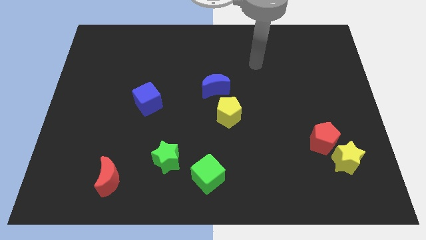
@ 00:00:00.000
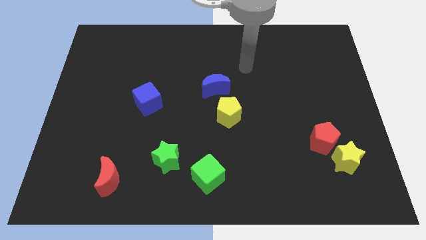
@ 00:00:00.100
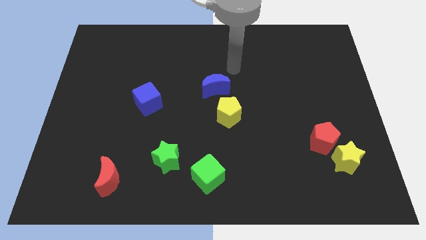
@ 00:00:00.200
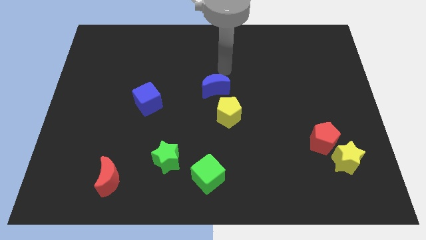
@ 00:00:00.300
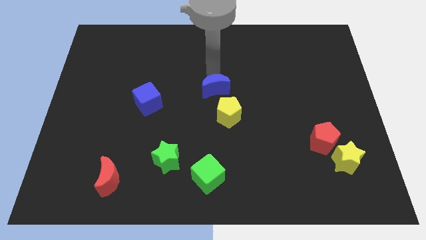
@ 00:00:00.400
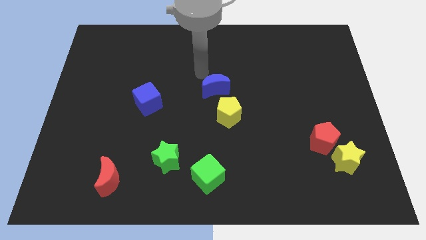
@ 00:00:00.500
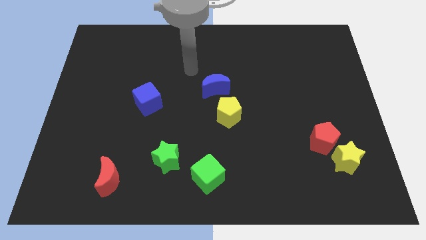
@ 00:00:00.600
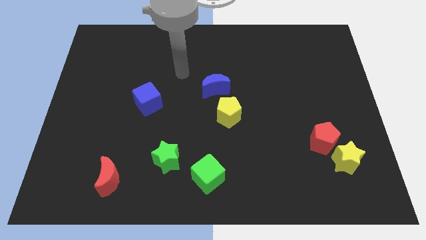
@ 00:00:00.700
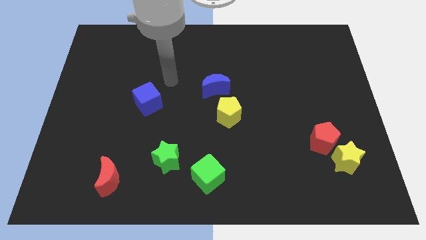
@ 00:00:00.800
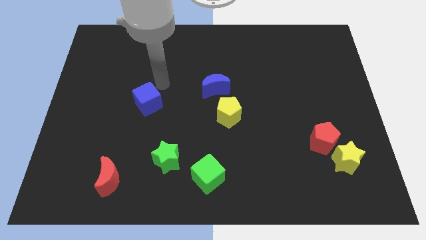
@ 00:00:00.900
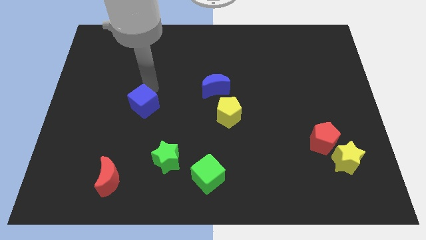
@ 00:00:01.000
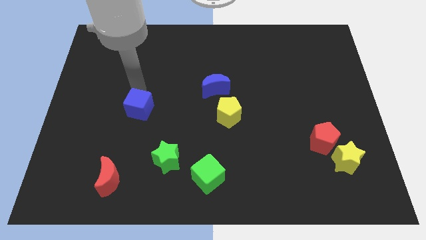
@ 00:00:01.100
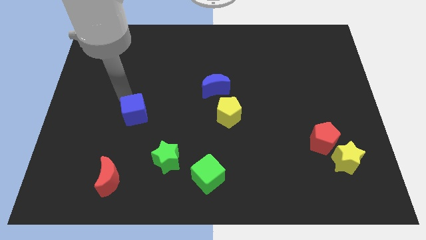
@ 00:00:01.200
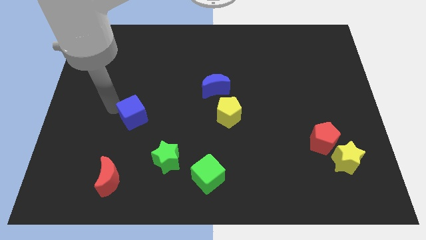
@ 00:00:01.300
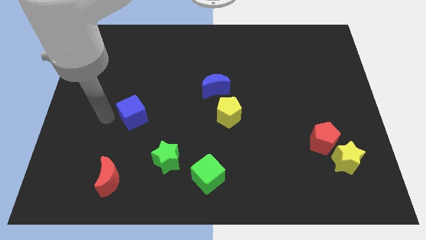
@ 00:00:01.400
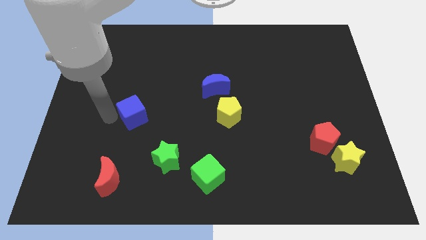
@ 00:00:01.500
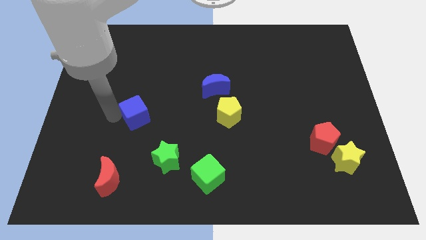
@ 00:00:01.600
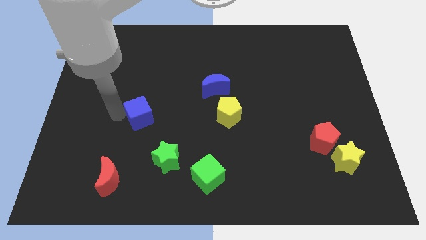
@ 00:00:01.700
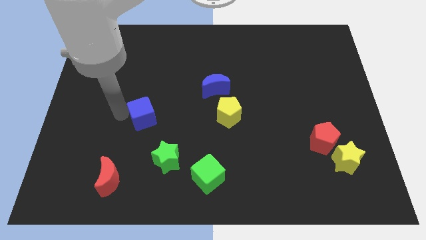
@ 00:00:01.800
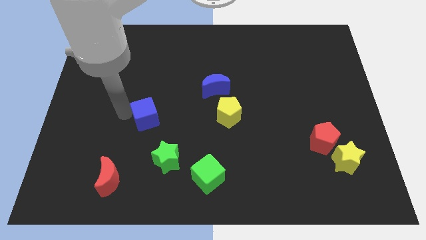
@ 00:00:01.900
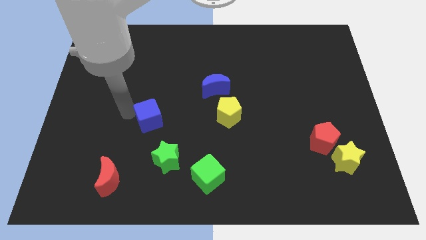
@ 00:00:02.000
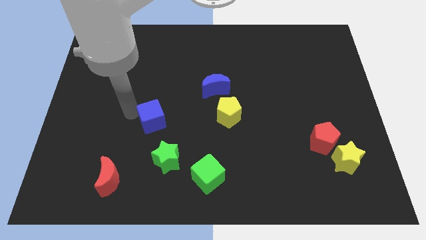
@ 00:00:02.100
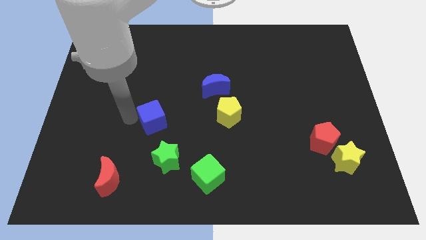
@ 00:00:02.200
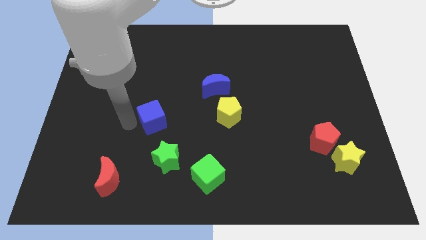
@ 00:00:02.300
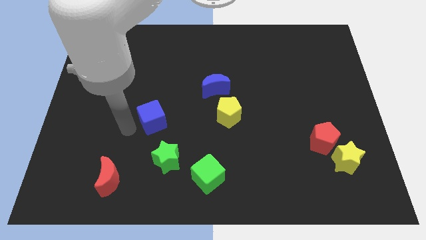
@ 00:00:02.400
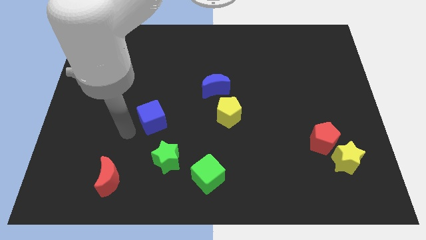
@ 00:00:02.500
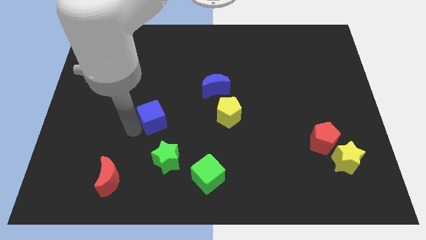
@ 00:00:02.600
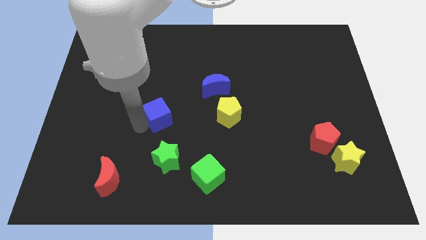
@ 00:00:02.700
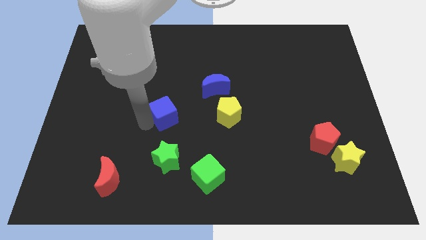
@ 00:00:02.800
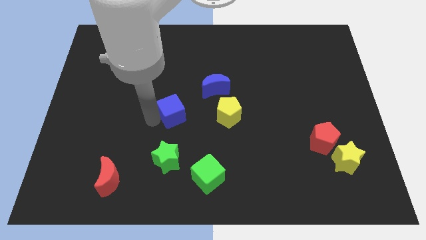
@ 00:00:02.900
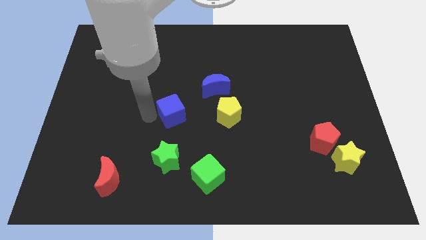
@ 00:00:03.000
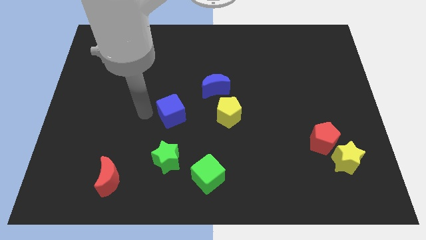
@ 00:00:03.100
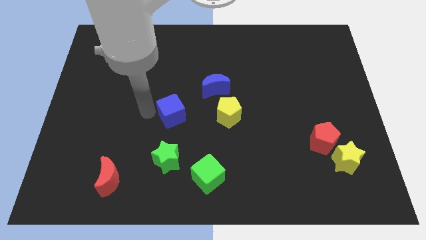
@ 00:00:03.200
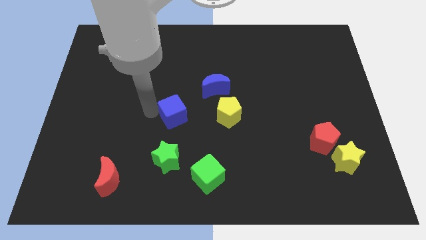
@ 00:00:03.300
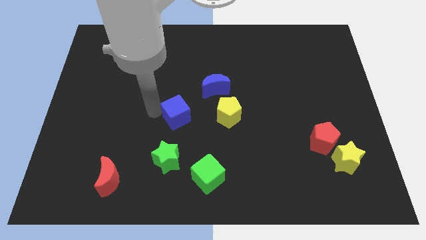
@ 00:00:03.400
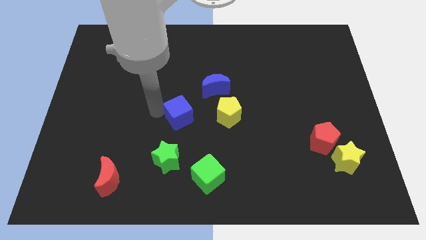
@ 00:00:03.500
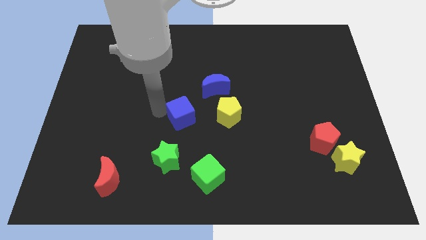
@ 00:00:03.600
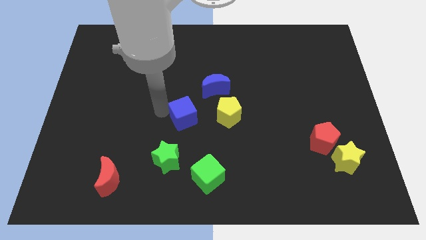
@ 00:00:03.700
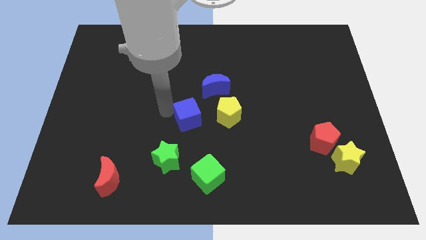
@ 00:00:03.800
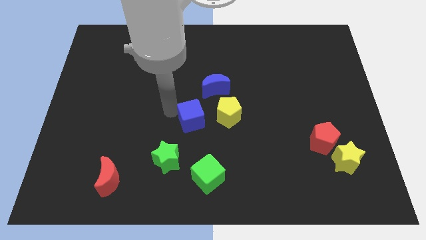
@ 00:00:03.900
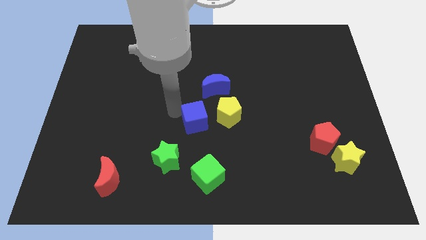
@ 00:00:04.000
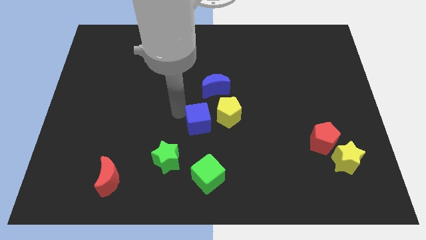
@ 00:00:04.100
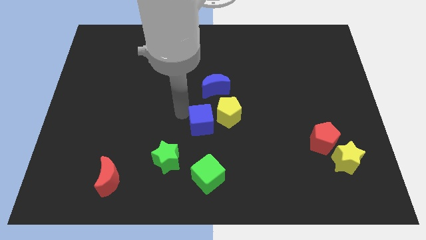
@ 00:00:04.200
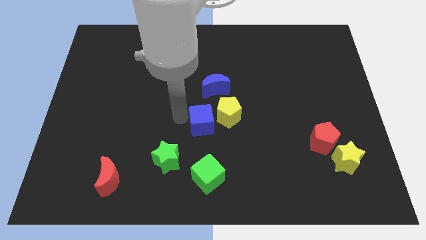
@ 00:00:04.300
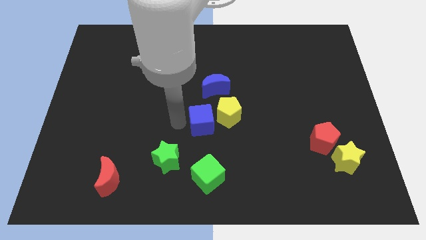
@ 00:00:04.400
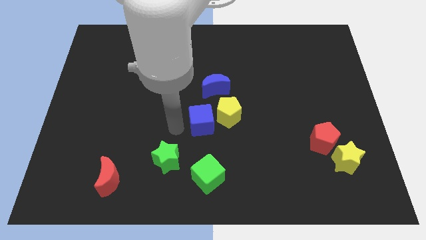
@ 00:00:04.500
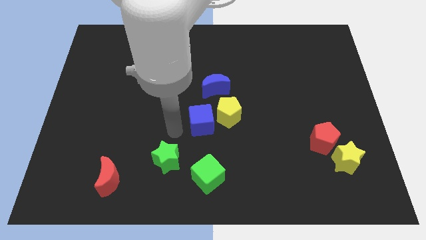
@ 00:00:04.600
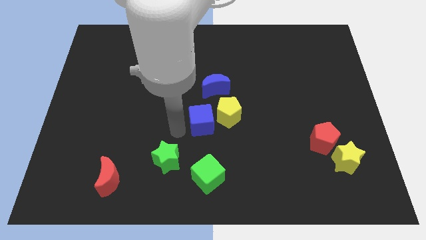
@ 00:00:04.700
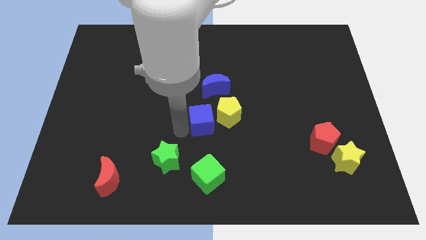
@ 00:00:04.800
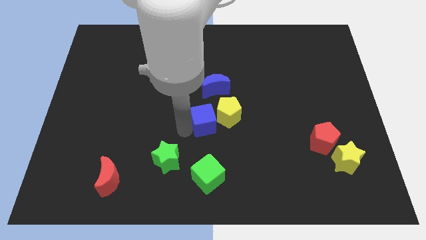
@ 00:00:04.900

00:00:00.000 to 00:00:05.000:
push the blue cube close to the yellow pentagon

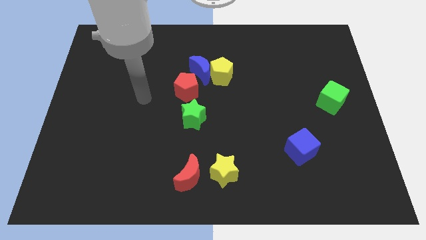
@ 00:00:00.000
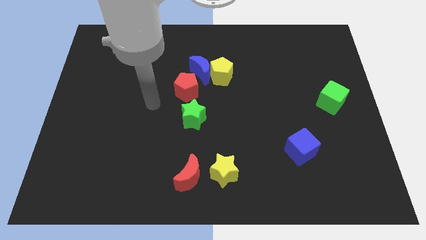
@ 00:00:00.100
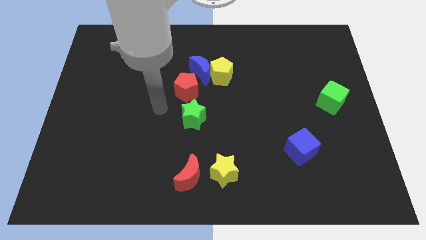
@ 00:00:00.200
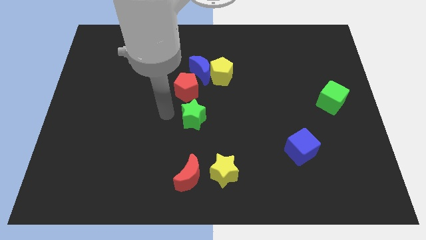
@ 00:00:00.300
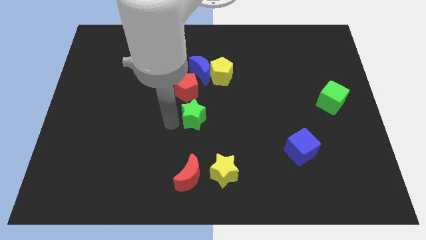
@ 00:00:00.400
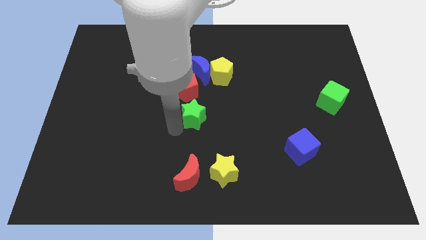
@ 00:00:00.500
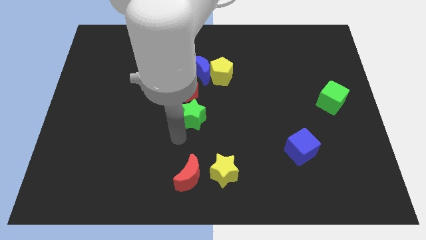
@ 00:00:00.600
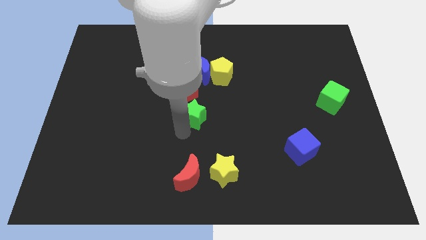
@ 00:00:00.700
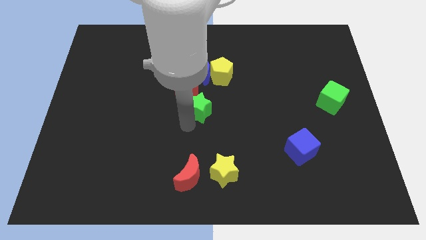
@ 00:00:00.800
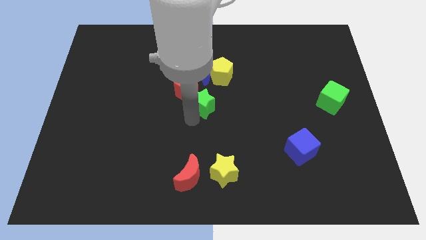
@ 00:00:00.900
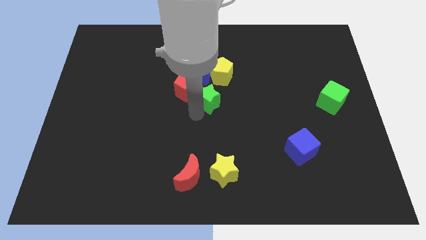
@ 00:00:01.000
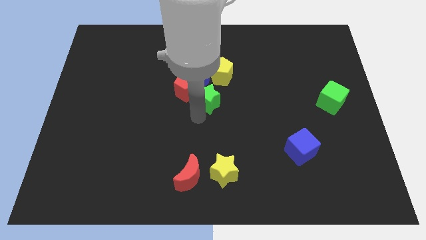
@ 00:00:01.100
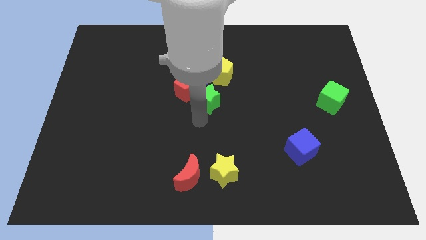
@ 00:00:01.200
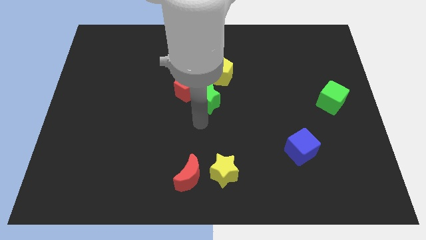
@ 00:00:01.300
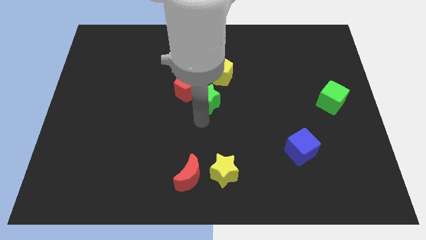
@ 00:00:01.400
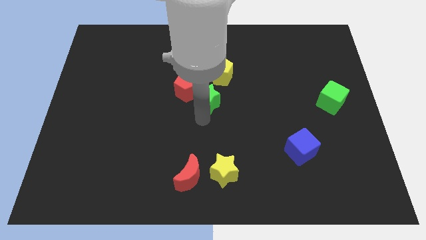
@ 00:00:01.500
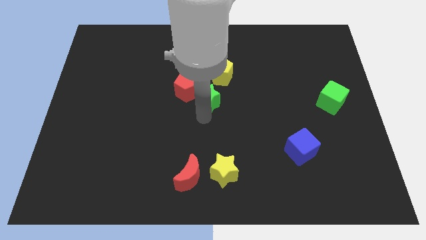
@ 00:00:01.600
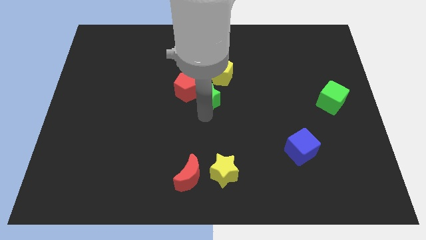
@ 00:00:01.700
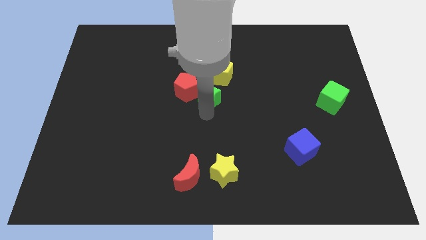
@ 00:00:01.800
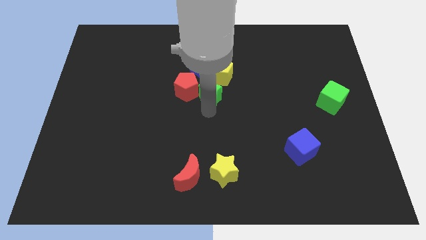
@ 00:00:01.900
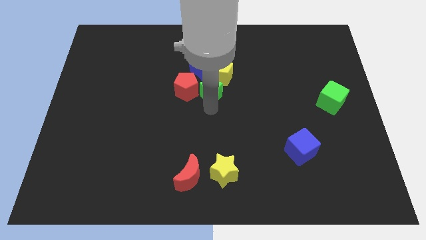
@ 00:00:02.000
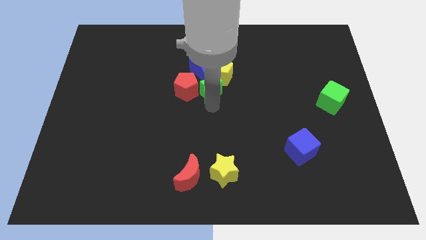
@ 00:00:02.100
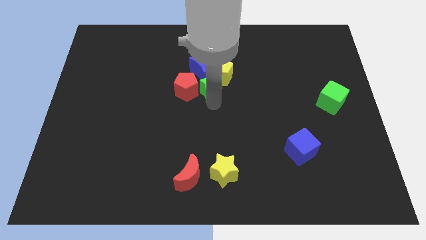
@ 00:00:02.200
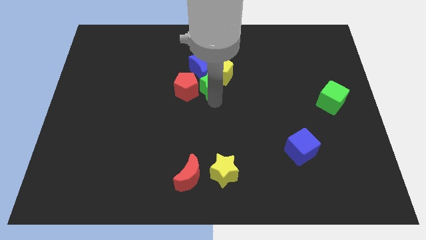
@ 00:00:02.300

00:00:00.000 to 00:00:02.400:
put the green star towards the blue moon
